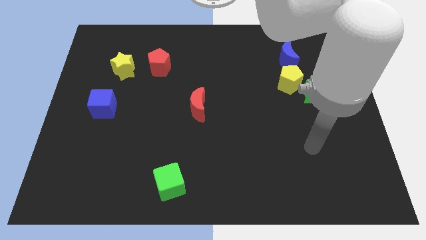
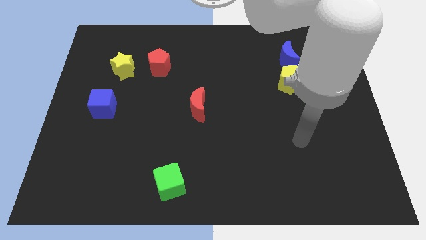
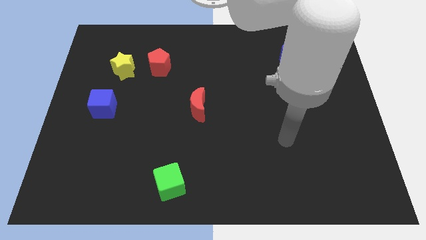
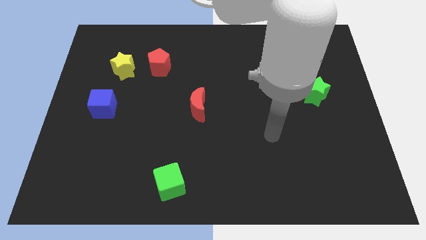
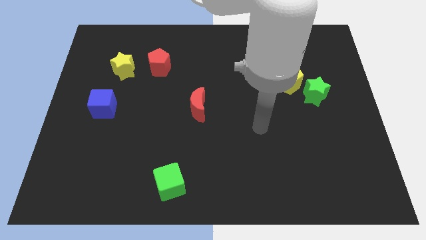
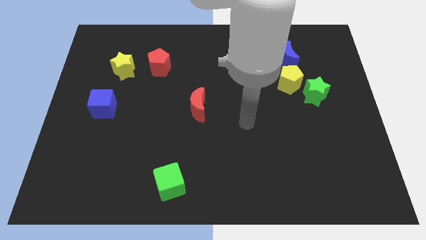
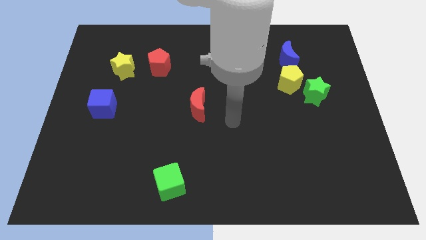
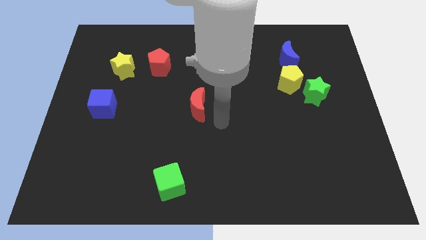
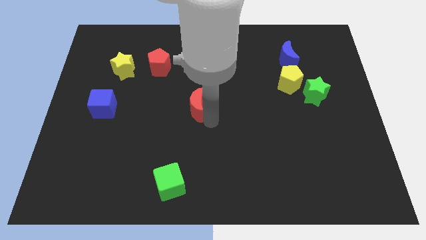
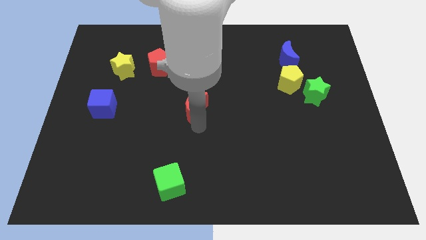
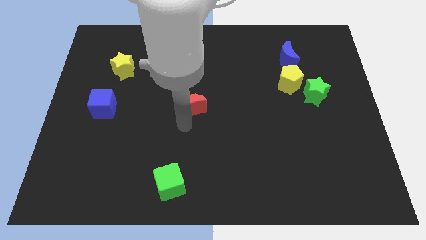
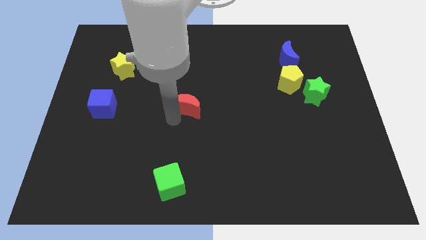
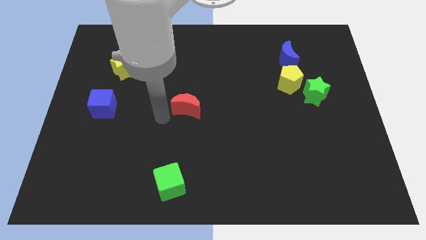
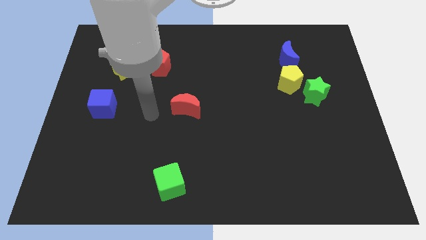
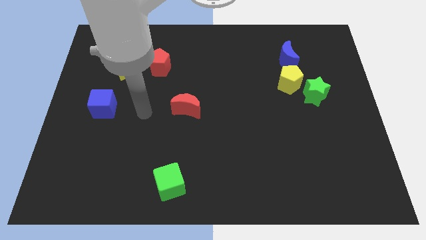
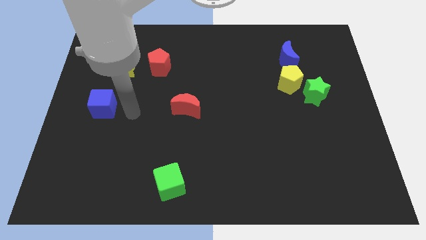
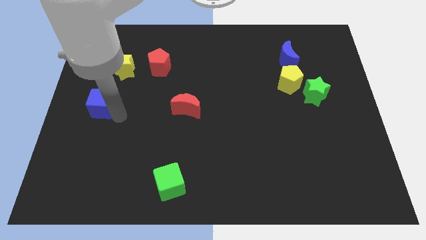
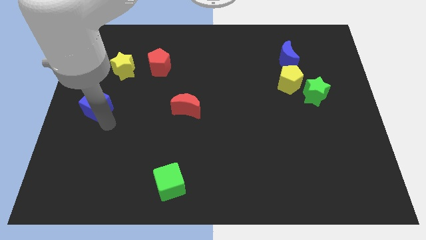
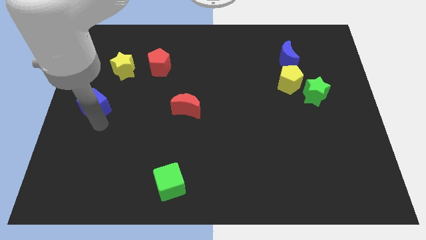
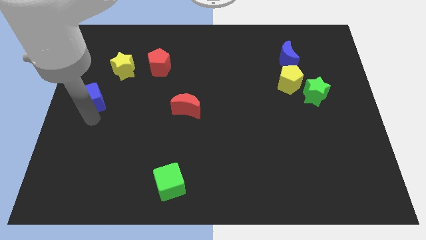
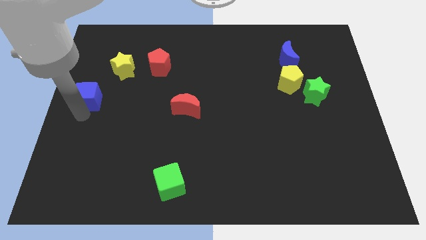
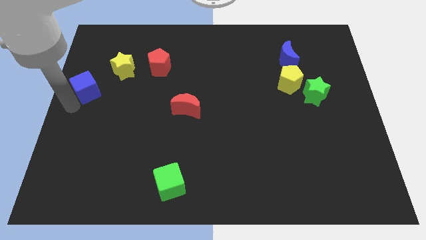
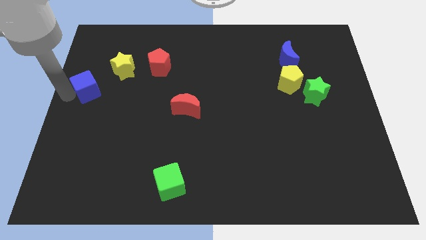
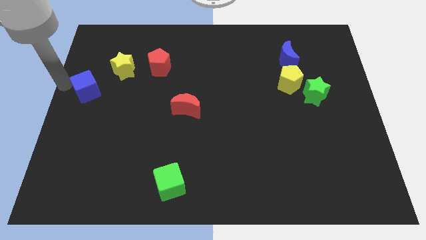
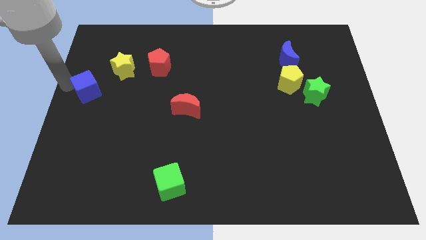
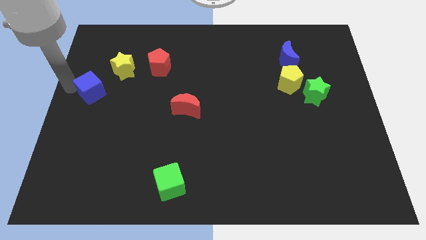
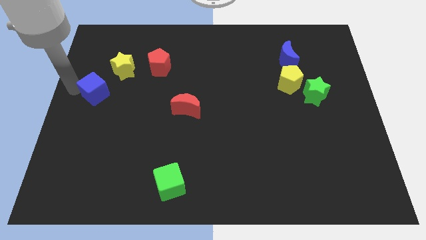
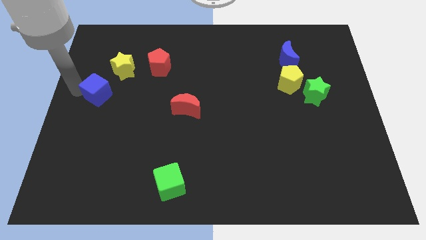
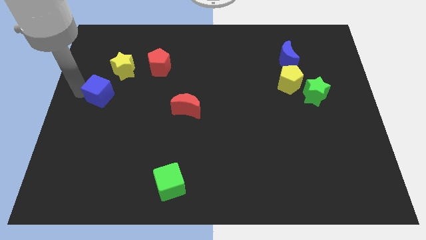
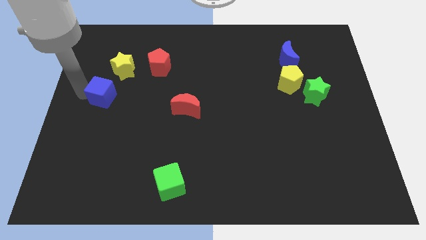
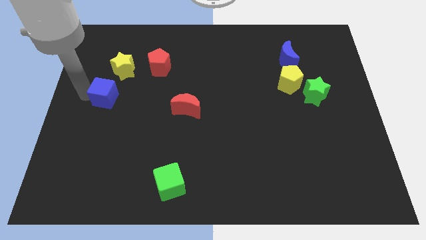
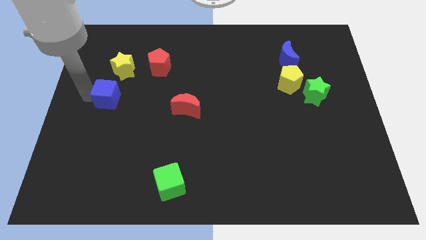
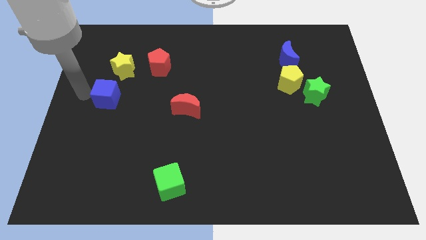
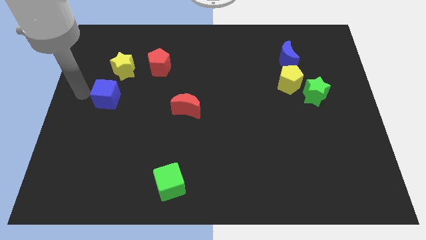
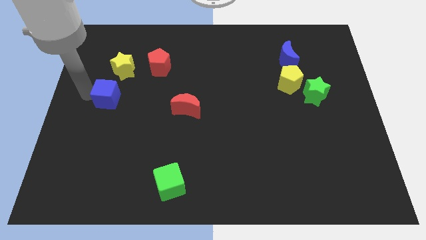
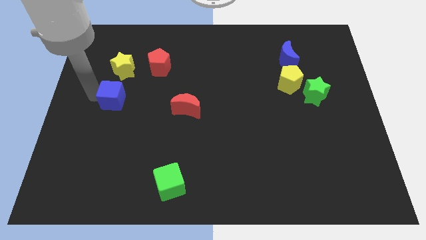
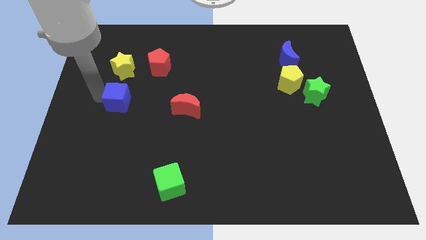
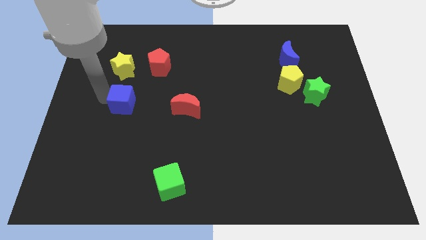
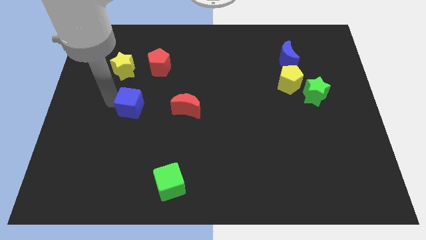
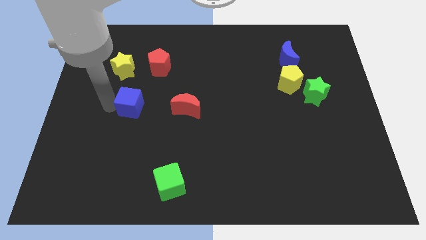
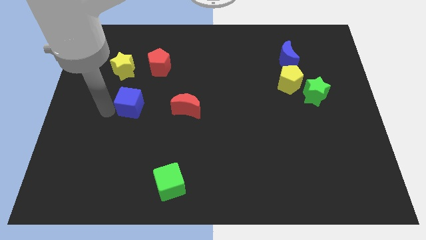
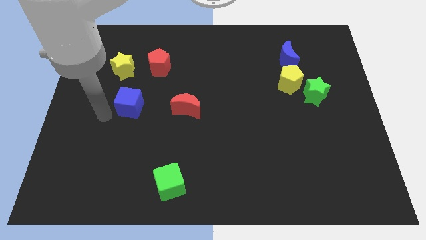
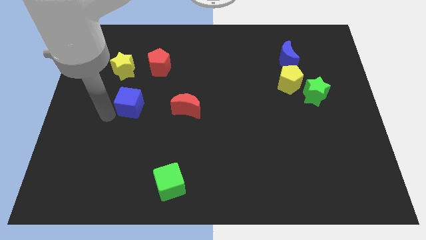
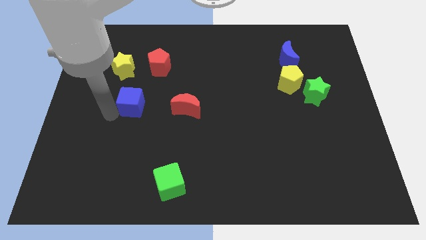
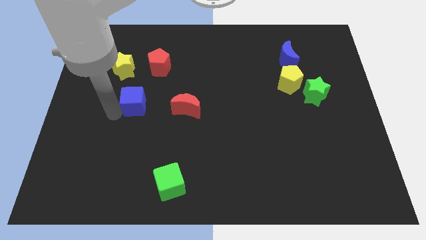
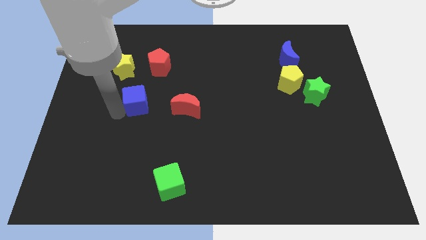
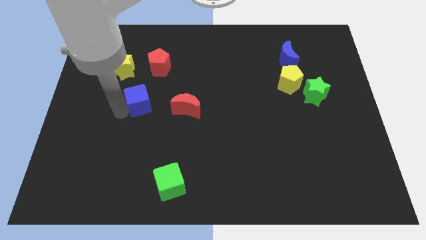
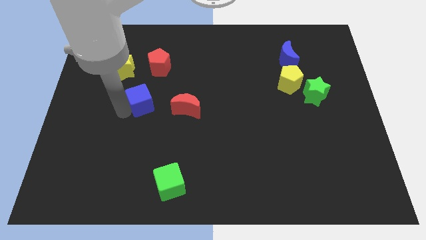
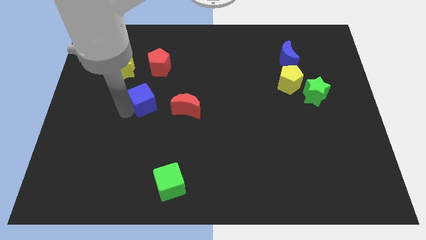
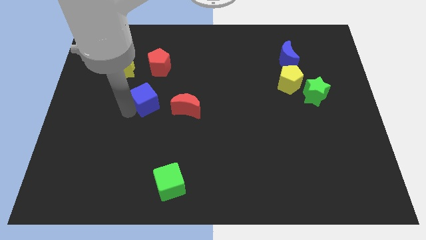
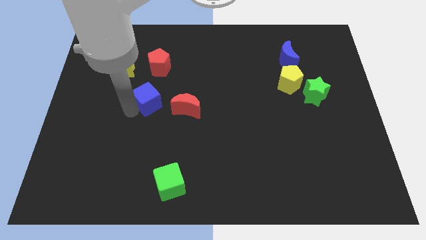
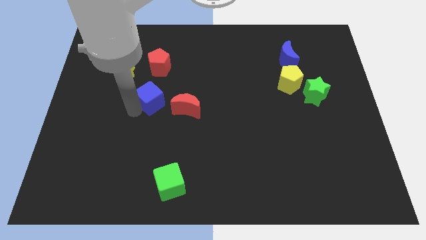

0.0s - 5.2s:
move the blue cube to the top left of the red moon

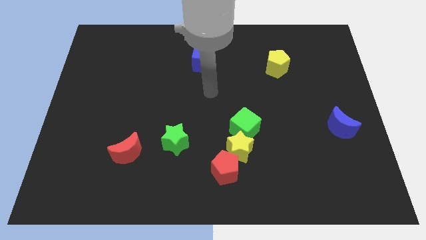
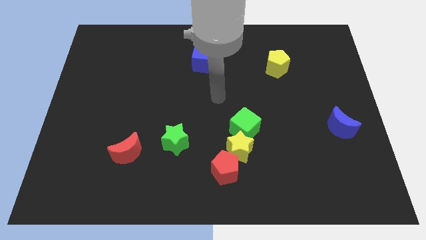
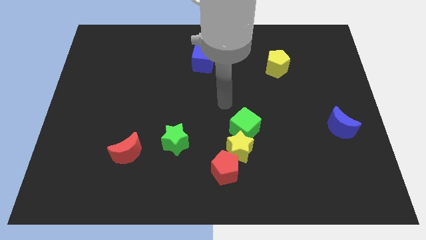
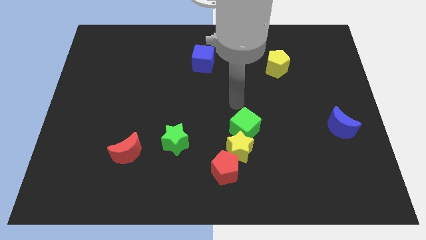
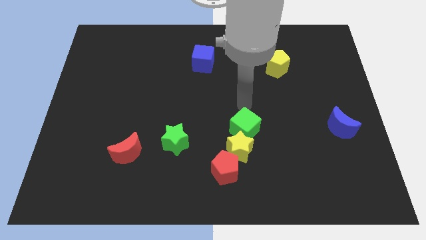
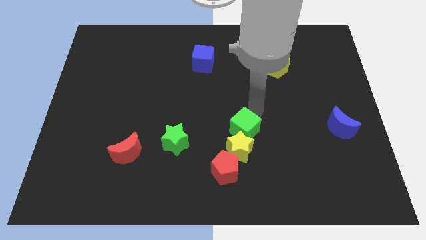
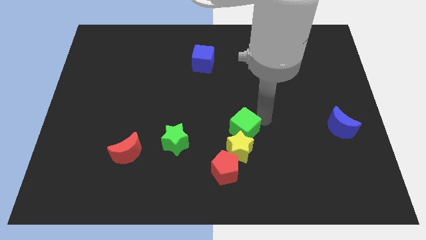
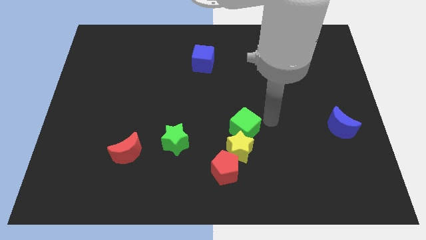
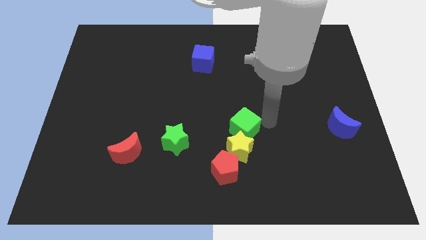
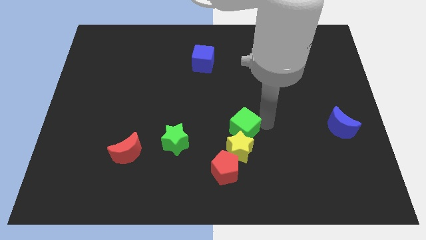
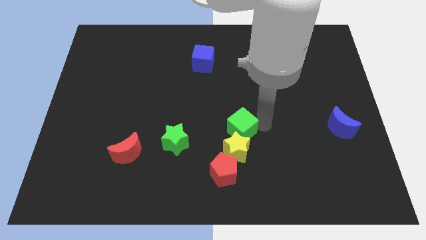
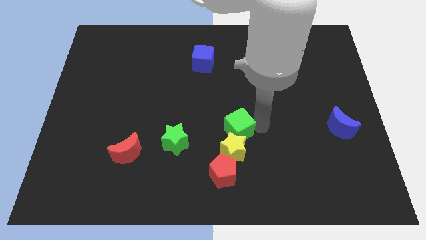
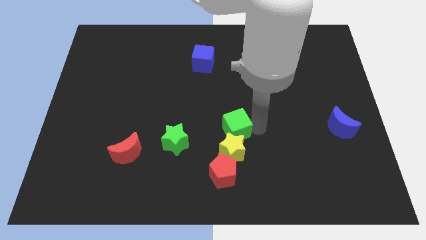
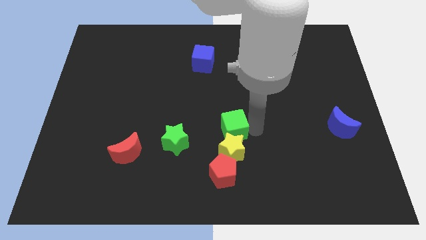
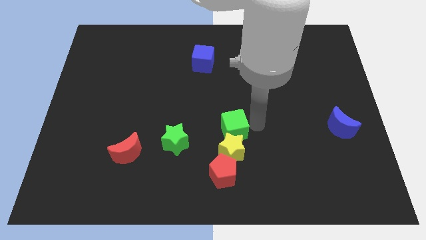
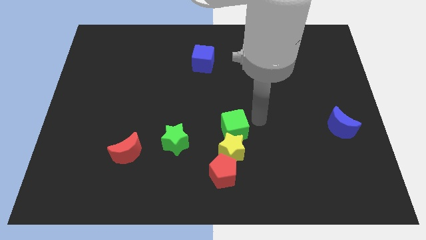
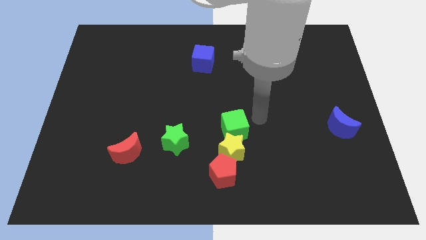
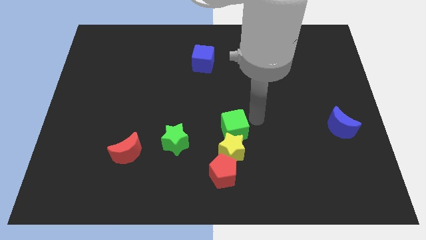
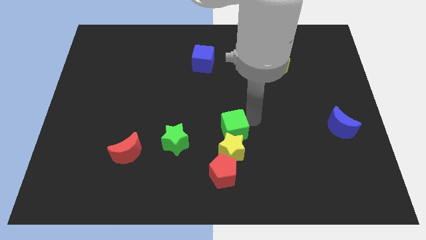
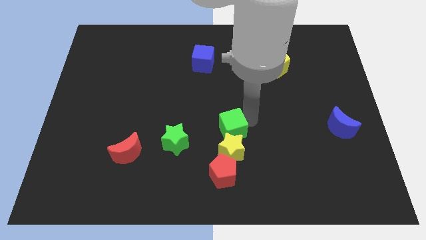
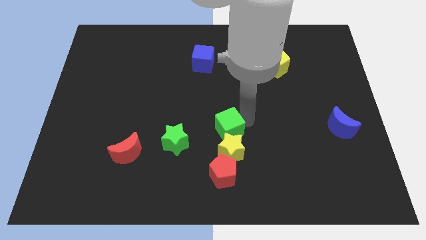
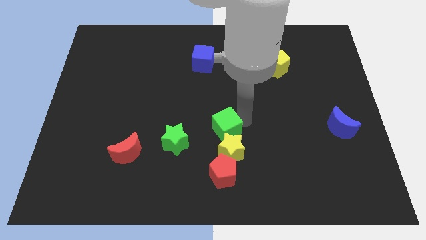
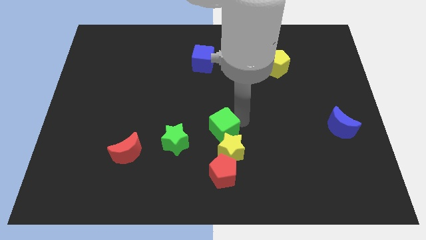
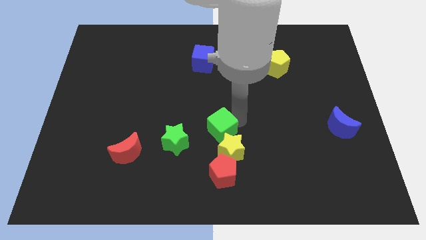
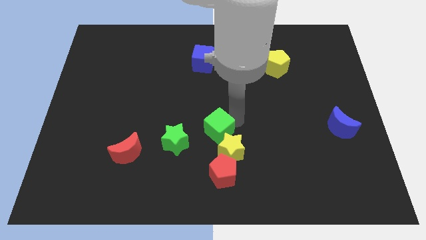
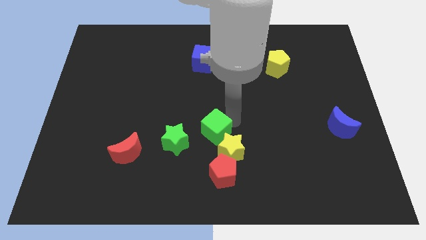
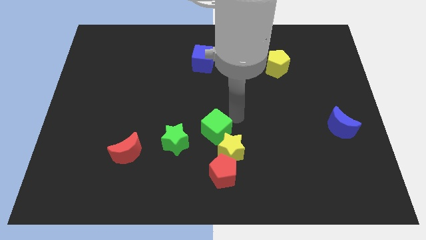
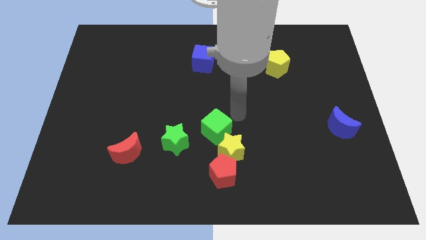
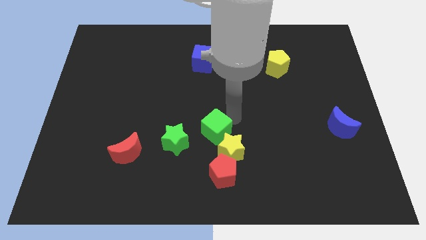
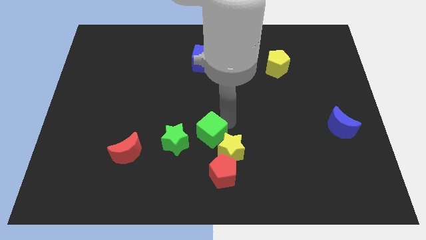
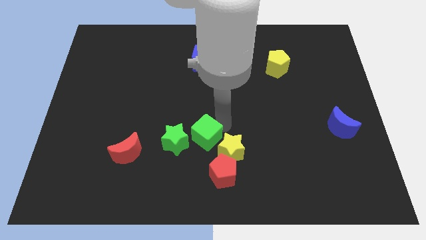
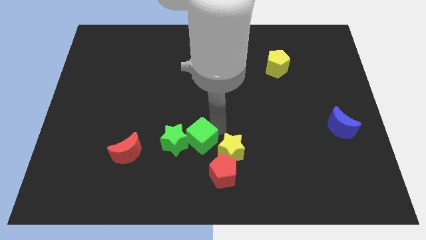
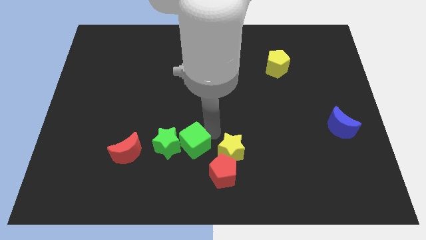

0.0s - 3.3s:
slide the green cube to the right of the red moon
